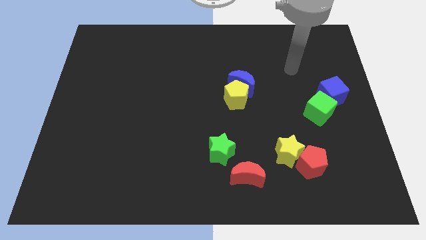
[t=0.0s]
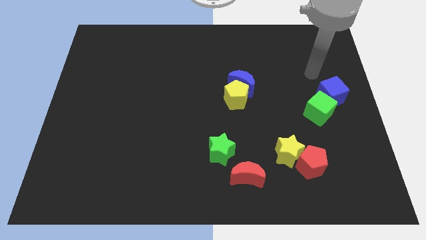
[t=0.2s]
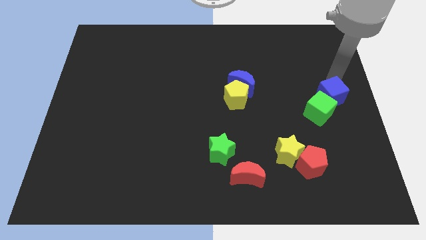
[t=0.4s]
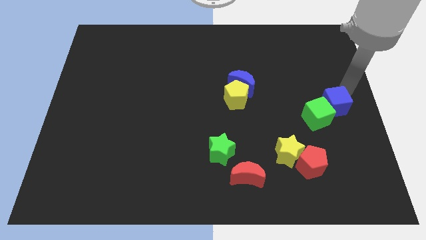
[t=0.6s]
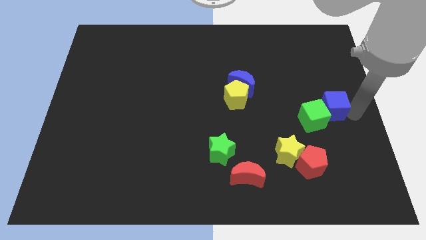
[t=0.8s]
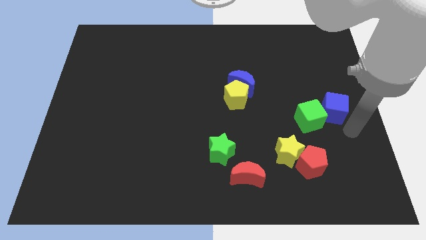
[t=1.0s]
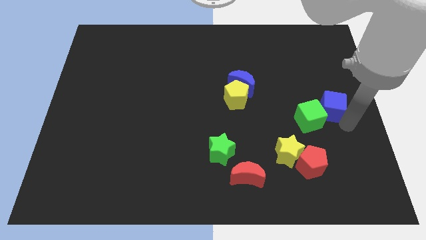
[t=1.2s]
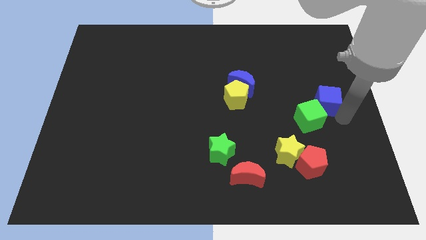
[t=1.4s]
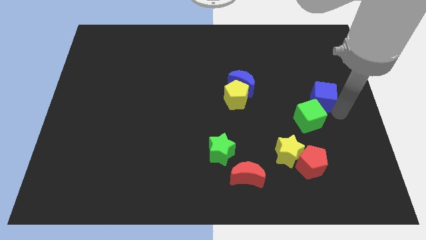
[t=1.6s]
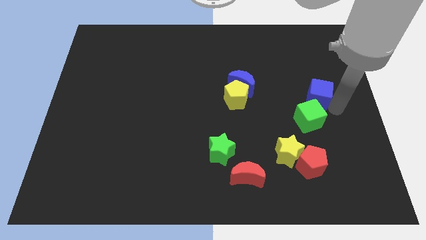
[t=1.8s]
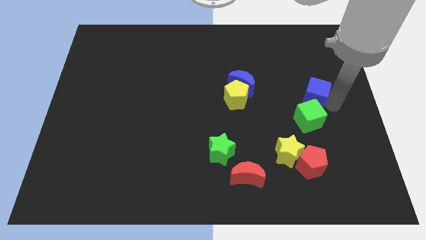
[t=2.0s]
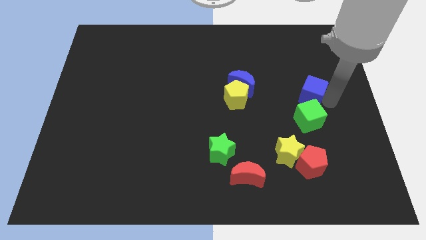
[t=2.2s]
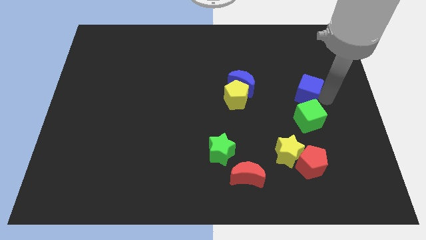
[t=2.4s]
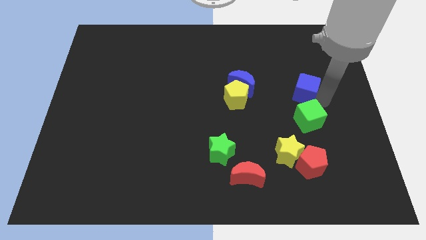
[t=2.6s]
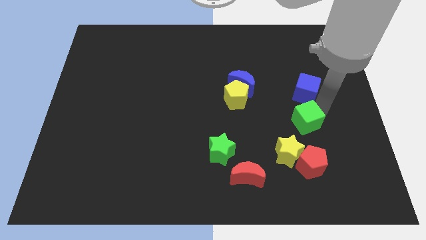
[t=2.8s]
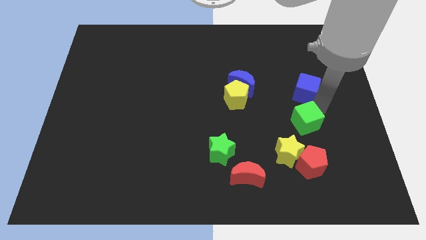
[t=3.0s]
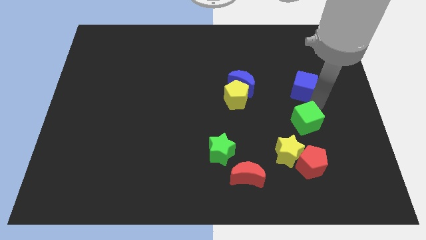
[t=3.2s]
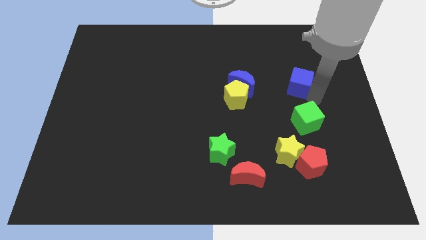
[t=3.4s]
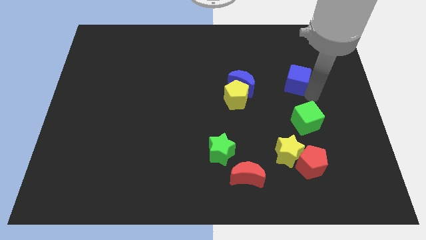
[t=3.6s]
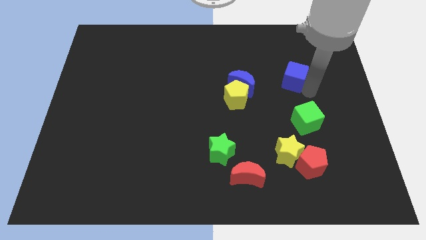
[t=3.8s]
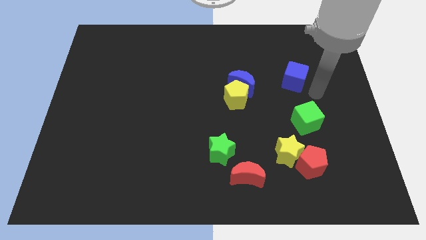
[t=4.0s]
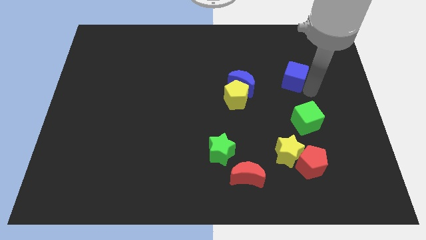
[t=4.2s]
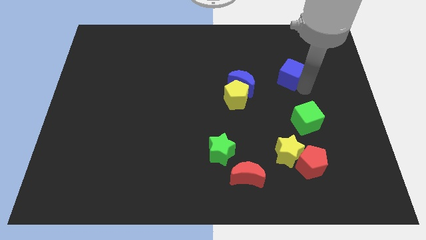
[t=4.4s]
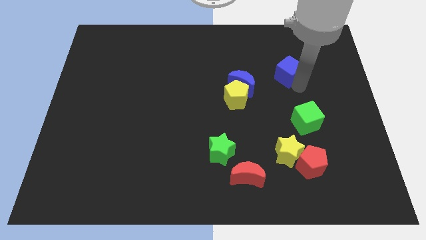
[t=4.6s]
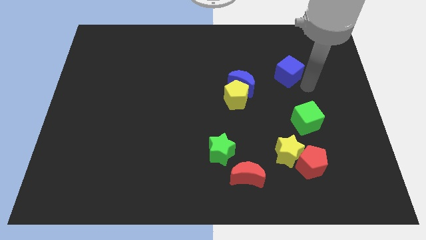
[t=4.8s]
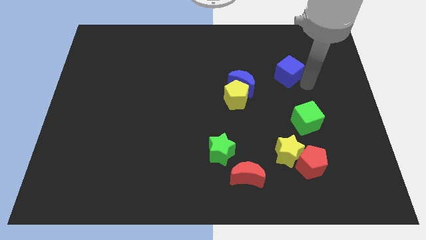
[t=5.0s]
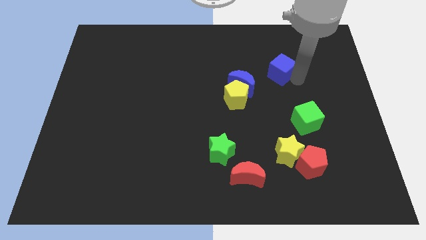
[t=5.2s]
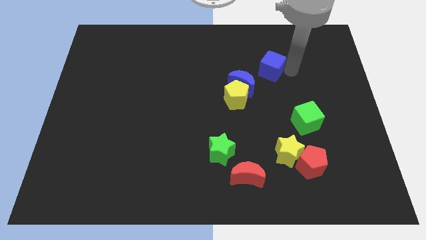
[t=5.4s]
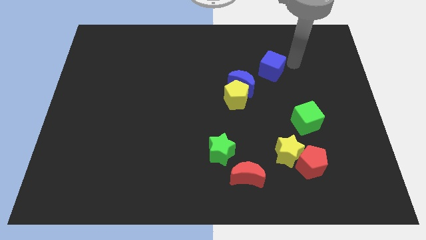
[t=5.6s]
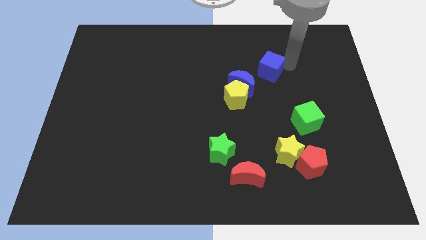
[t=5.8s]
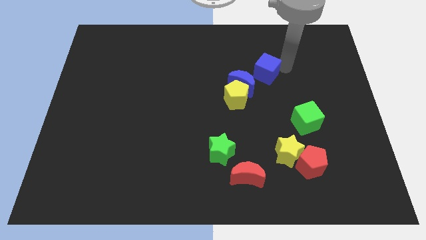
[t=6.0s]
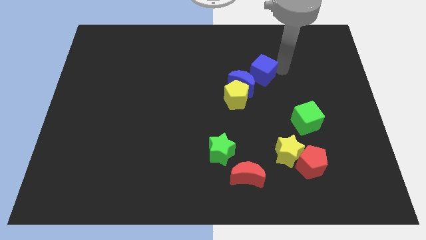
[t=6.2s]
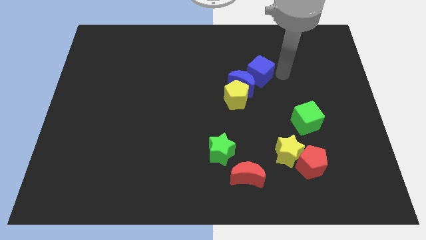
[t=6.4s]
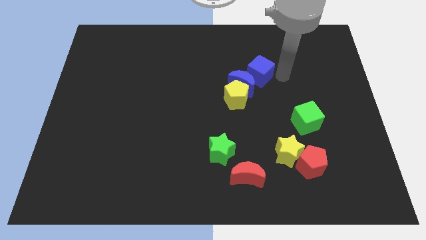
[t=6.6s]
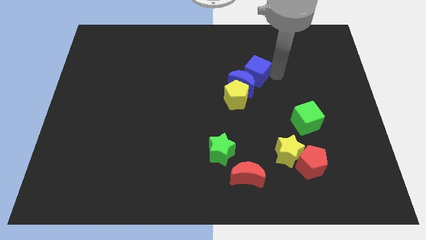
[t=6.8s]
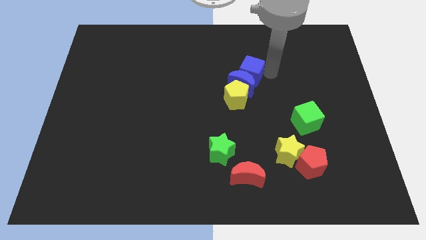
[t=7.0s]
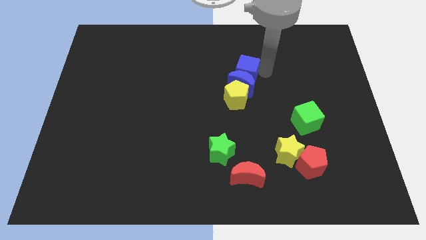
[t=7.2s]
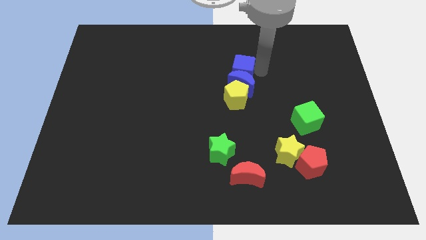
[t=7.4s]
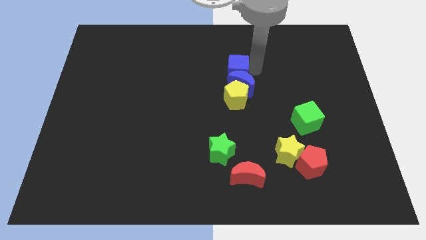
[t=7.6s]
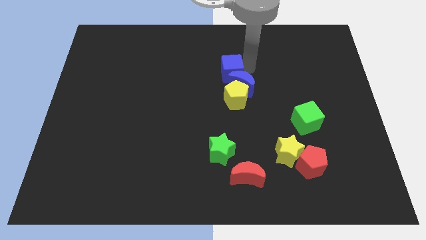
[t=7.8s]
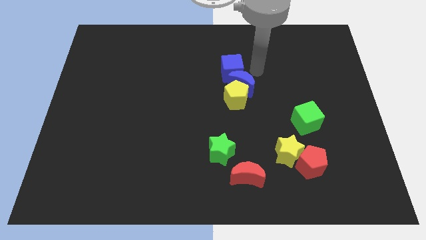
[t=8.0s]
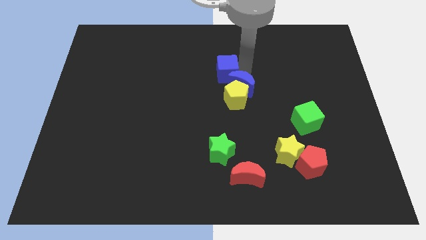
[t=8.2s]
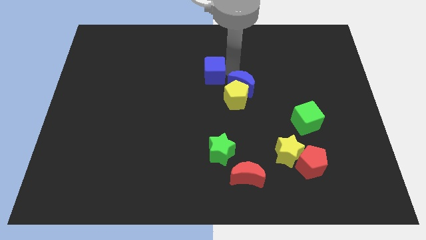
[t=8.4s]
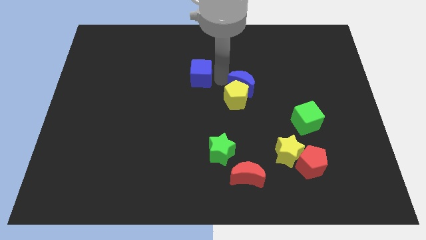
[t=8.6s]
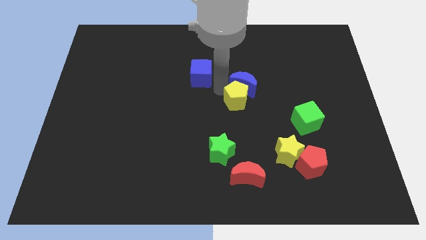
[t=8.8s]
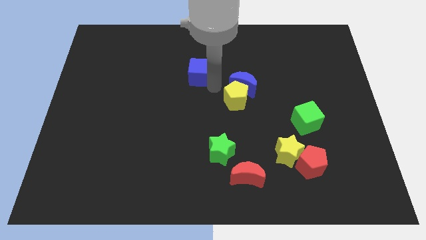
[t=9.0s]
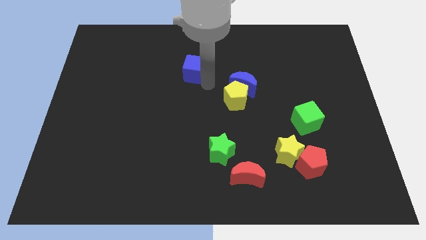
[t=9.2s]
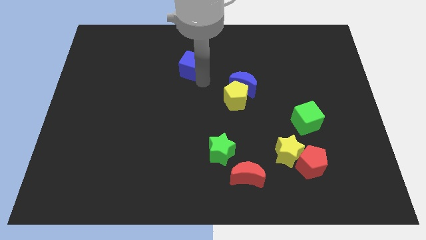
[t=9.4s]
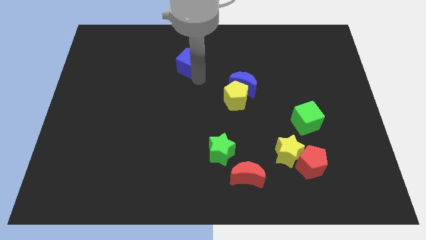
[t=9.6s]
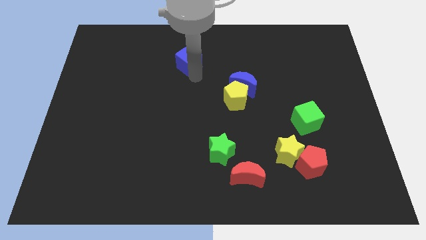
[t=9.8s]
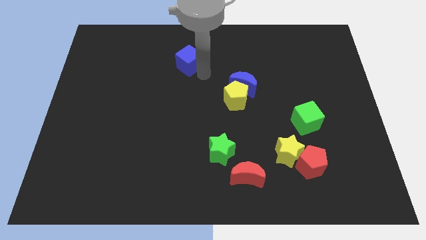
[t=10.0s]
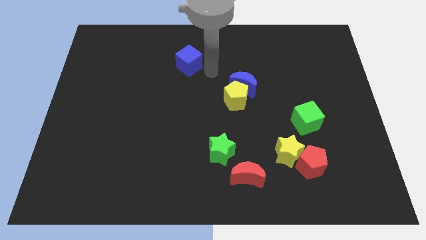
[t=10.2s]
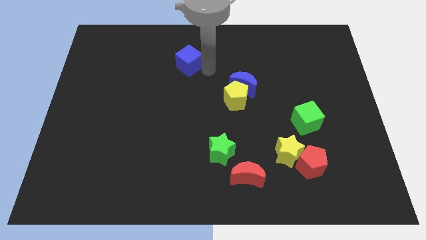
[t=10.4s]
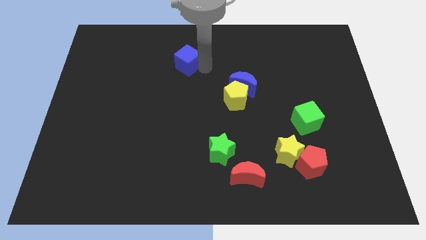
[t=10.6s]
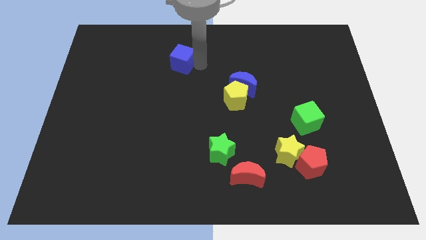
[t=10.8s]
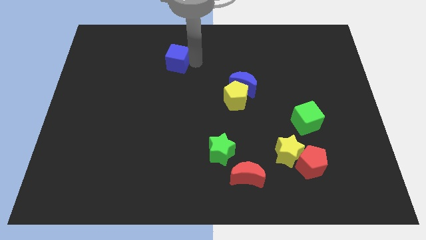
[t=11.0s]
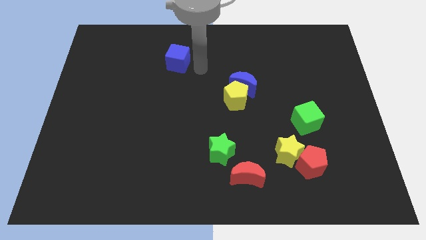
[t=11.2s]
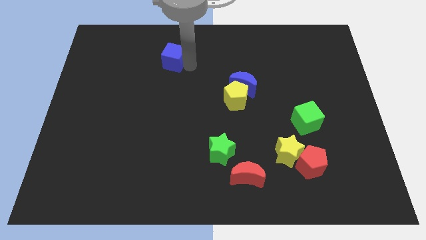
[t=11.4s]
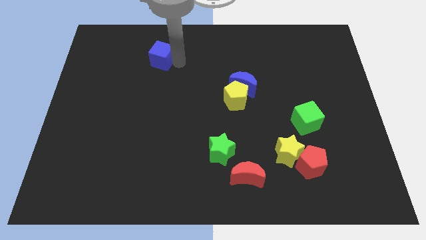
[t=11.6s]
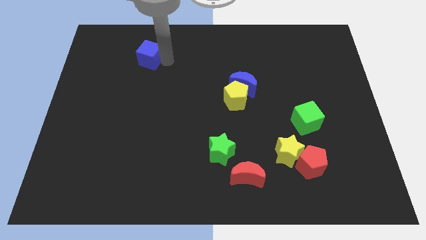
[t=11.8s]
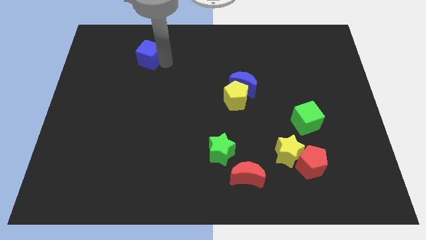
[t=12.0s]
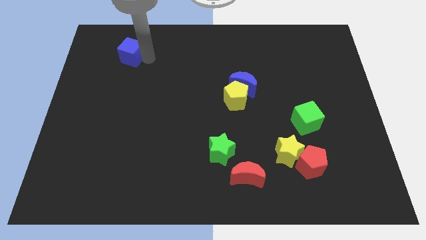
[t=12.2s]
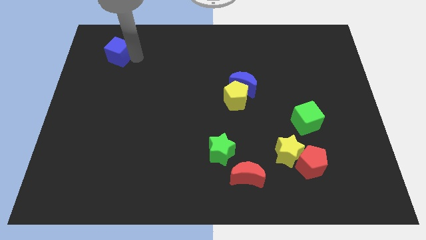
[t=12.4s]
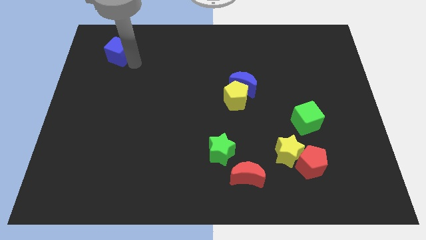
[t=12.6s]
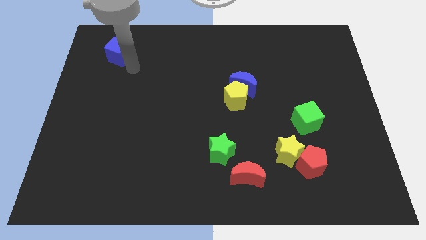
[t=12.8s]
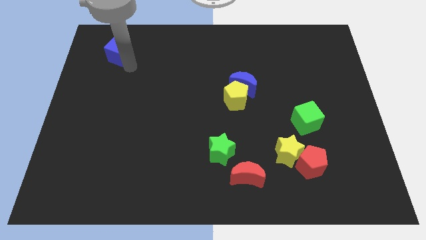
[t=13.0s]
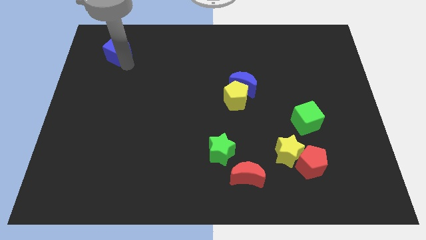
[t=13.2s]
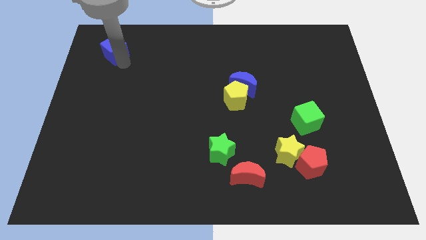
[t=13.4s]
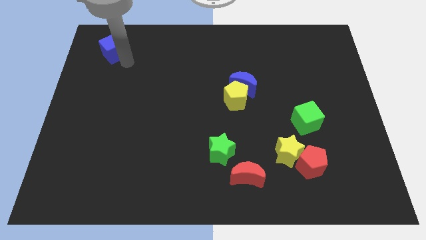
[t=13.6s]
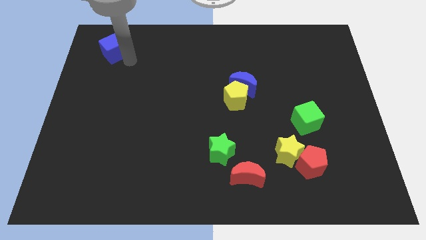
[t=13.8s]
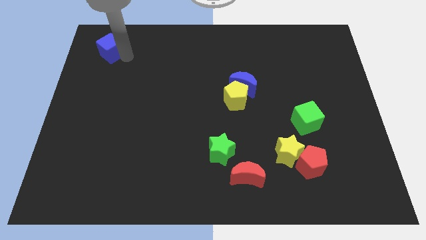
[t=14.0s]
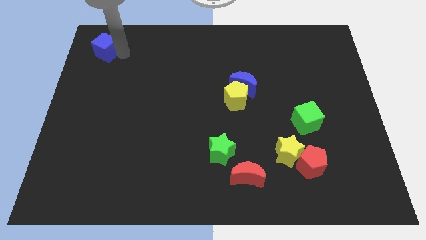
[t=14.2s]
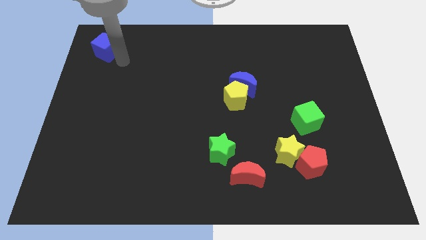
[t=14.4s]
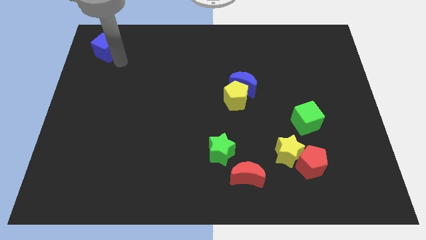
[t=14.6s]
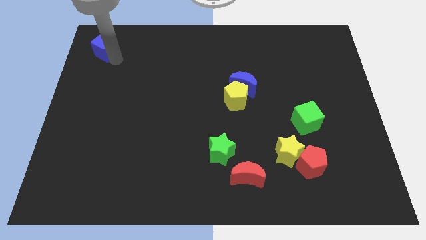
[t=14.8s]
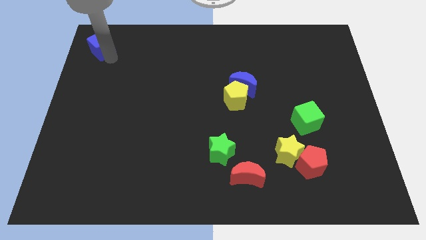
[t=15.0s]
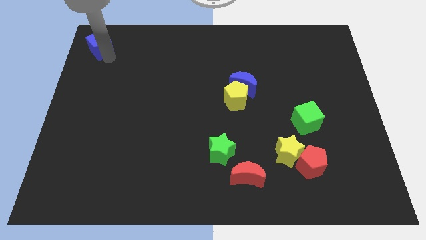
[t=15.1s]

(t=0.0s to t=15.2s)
slide the blue cube to the top left corner
